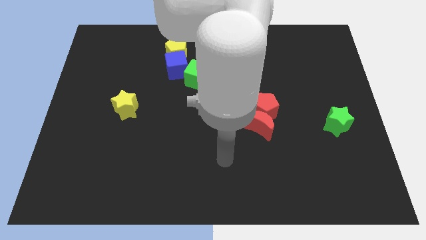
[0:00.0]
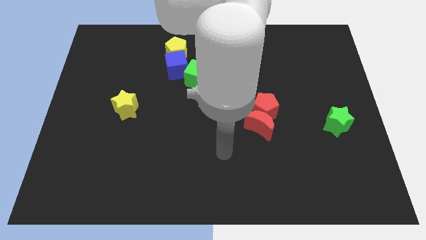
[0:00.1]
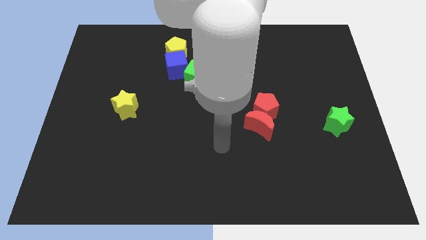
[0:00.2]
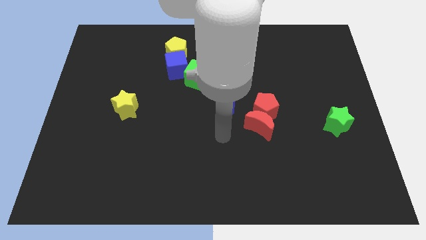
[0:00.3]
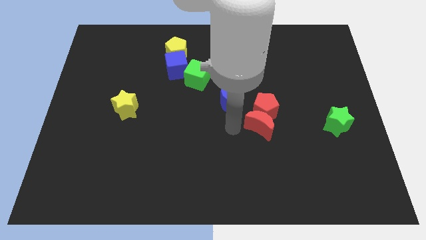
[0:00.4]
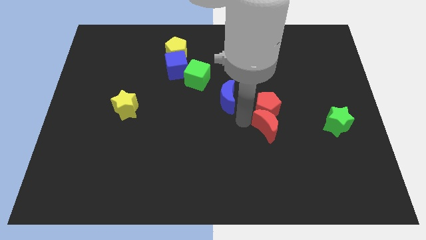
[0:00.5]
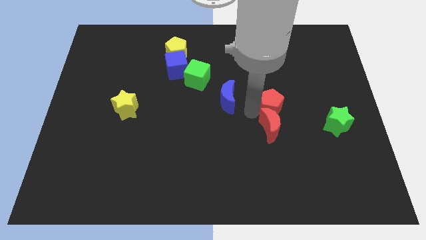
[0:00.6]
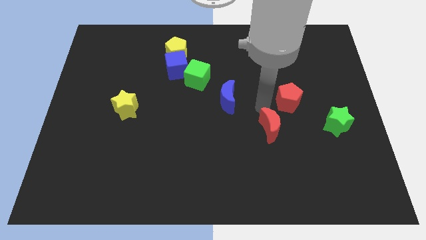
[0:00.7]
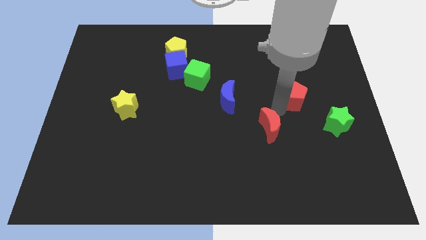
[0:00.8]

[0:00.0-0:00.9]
pull the red moon apart from the red pentagon

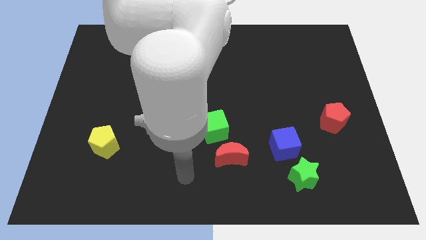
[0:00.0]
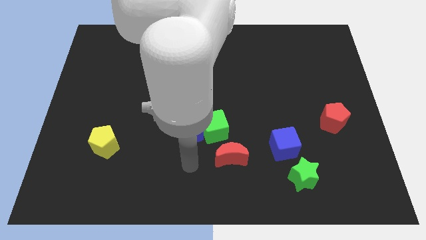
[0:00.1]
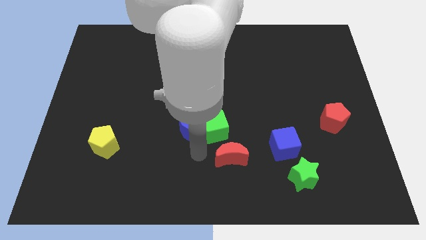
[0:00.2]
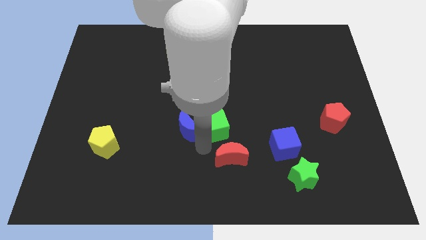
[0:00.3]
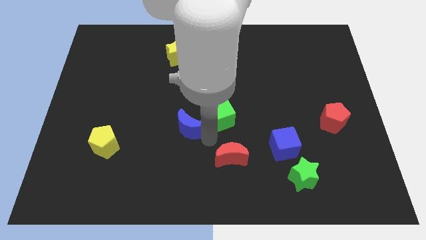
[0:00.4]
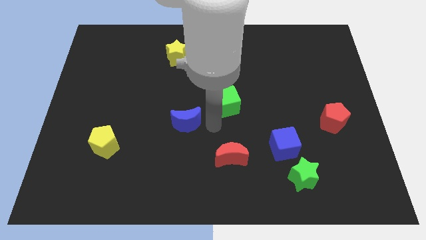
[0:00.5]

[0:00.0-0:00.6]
separate the blue moon from the green cube

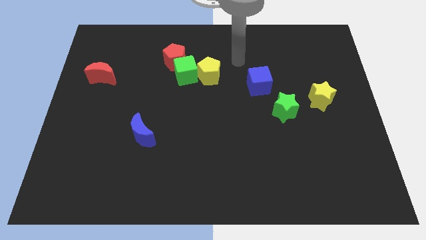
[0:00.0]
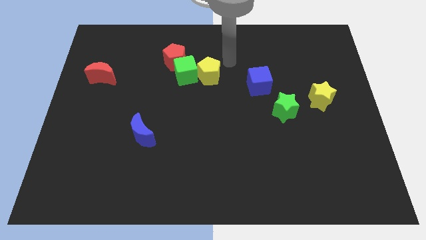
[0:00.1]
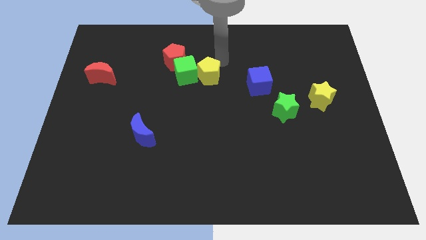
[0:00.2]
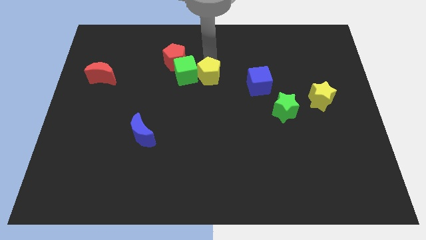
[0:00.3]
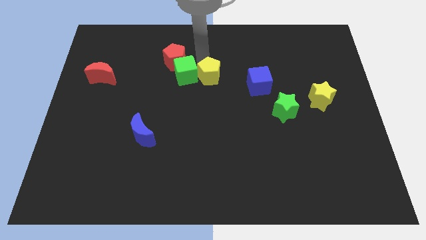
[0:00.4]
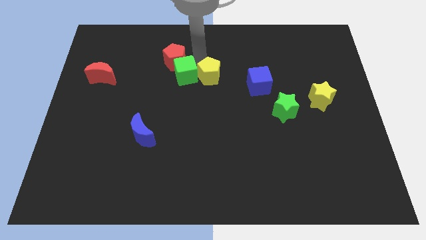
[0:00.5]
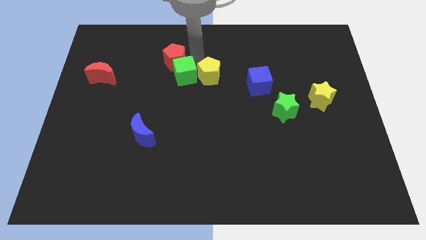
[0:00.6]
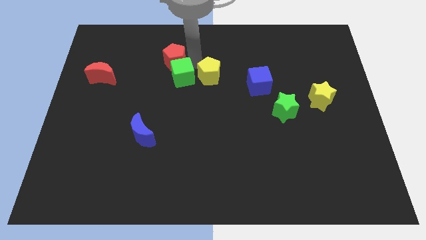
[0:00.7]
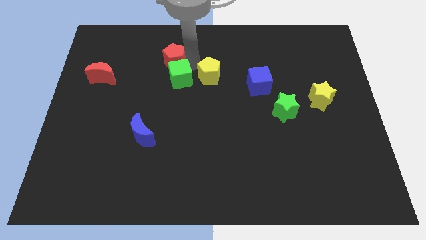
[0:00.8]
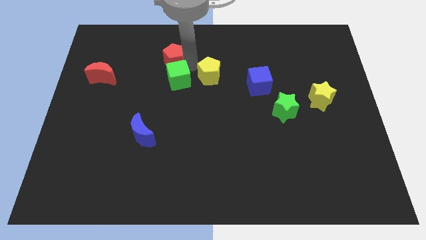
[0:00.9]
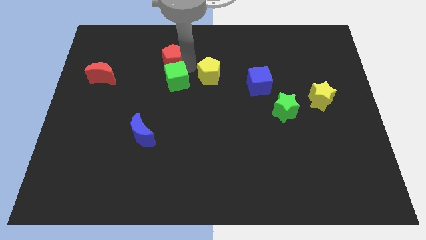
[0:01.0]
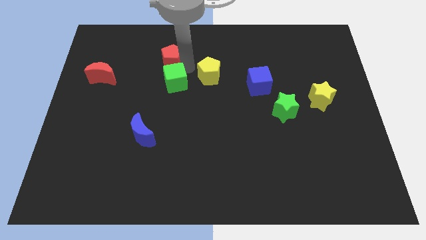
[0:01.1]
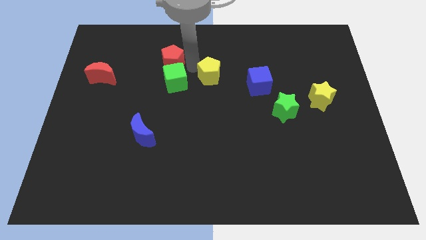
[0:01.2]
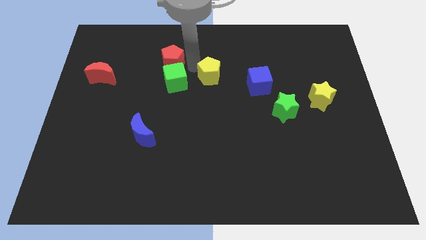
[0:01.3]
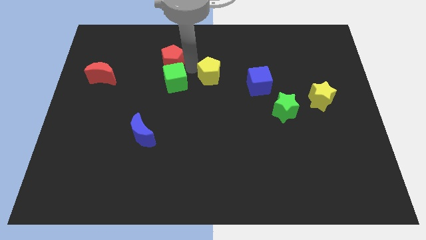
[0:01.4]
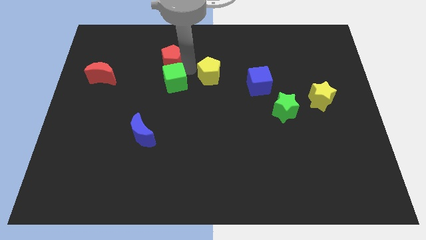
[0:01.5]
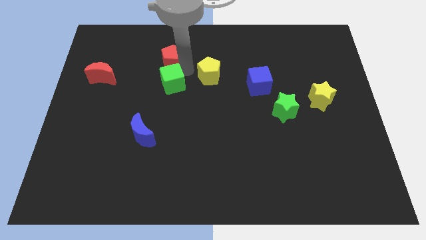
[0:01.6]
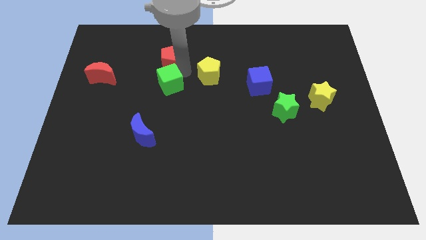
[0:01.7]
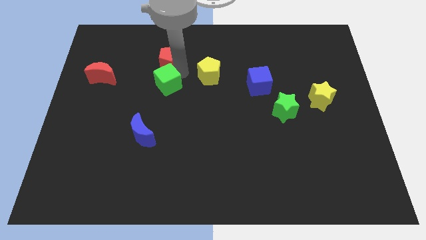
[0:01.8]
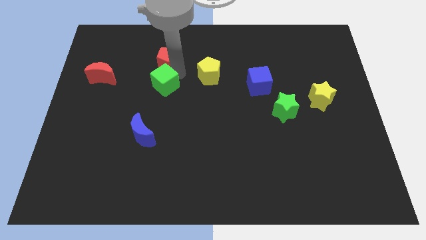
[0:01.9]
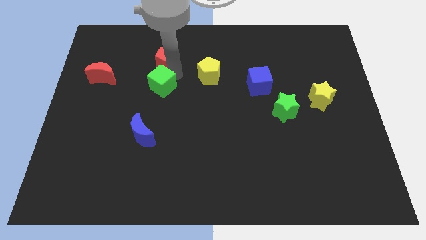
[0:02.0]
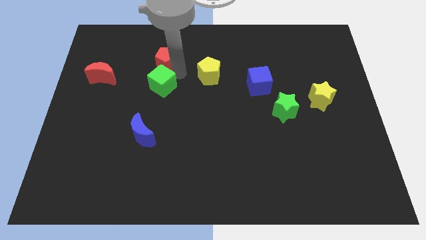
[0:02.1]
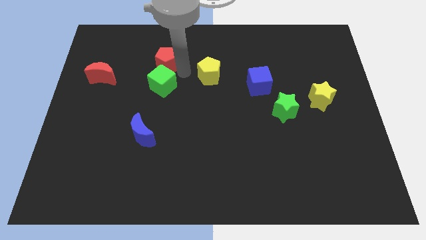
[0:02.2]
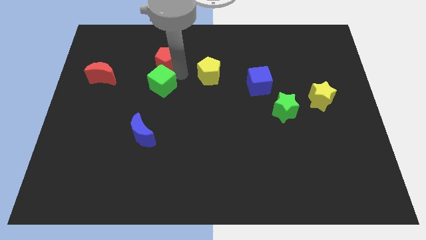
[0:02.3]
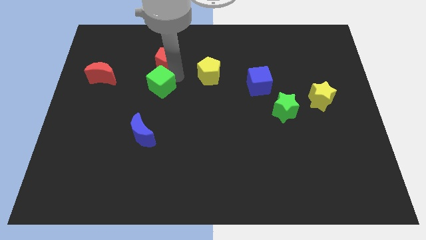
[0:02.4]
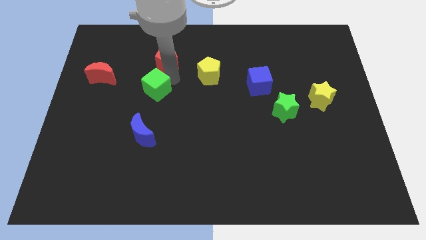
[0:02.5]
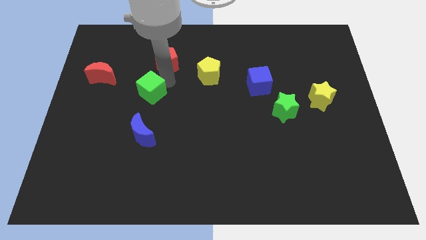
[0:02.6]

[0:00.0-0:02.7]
move the green cube away from the red pentagon and yellow pentagon

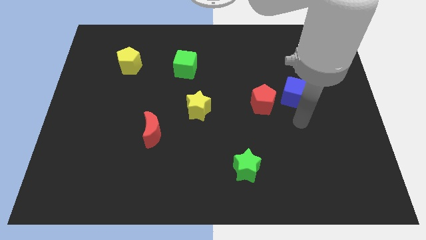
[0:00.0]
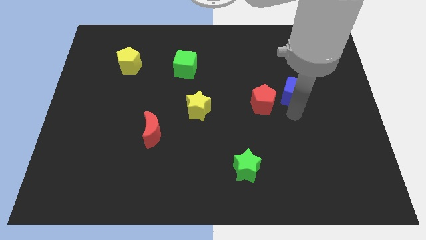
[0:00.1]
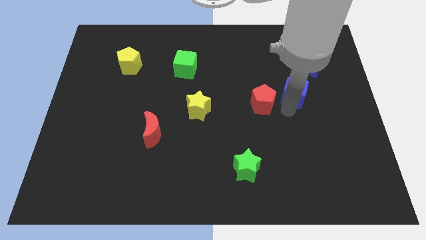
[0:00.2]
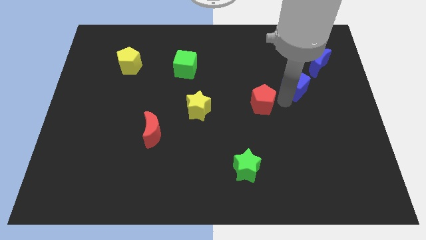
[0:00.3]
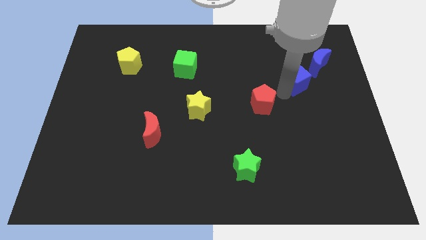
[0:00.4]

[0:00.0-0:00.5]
pull the red pentagon apart from the blue cube

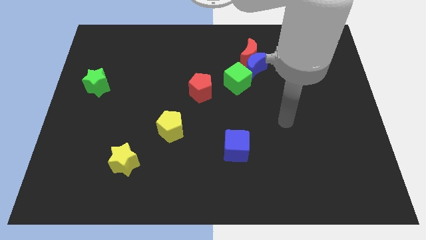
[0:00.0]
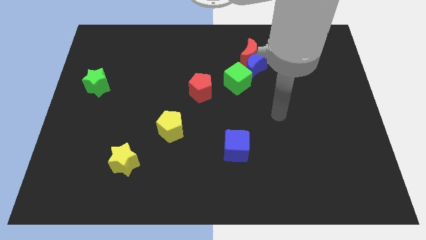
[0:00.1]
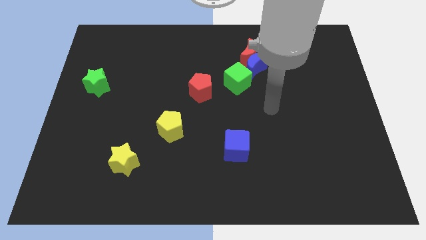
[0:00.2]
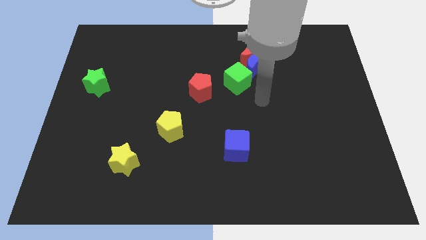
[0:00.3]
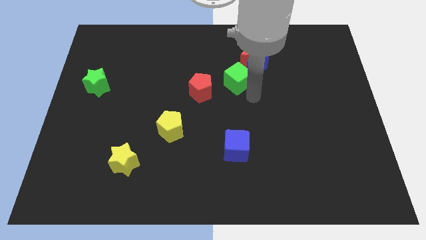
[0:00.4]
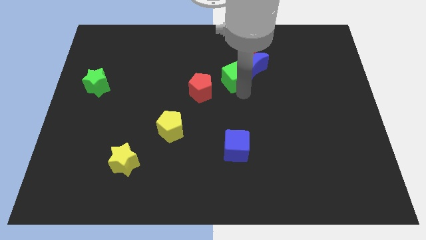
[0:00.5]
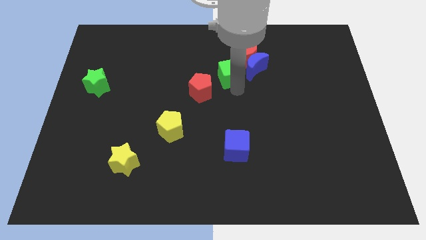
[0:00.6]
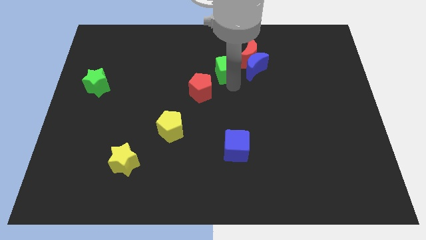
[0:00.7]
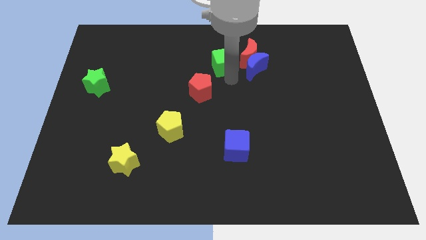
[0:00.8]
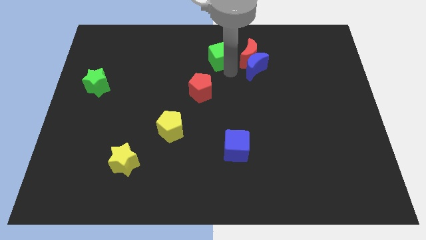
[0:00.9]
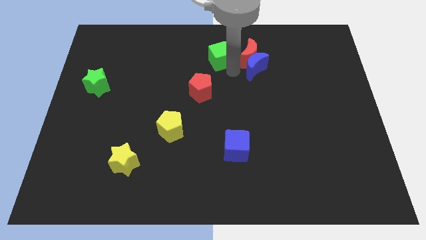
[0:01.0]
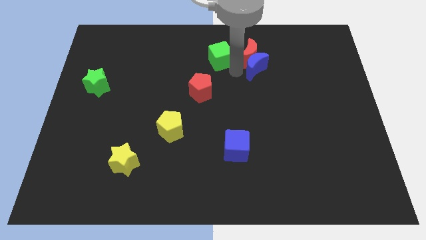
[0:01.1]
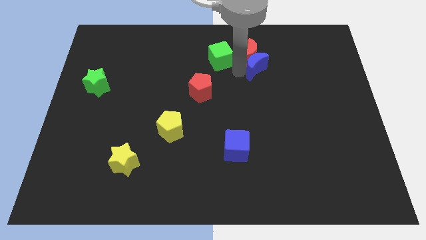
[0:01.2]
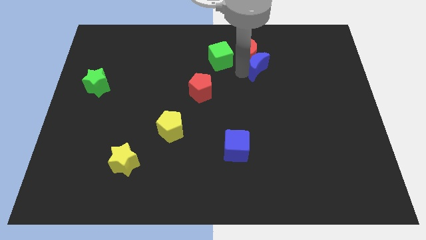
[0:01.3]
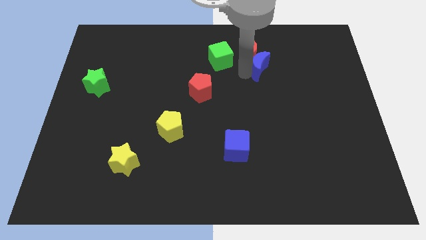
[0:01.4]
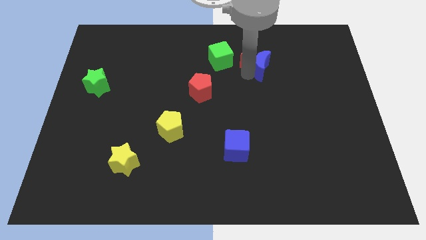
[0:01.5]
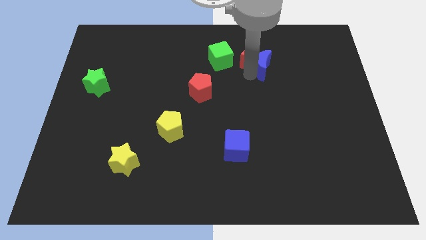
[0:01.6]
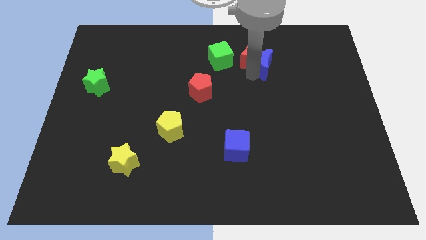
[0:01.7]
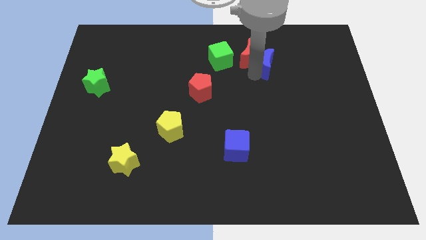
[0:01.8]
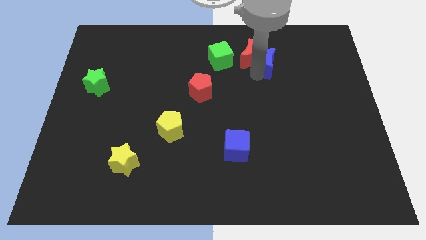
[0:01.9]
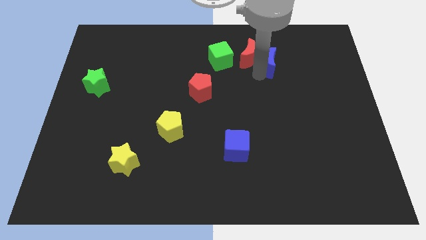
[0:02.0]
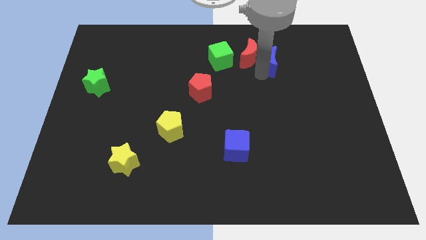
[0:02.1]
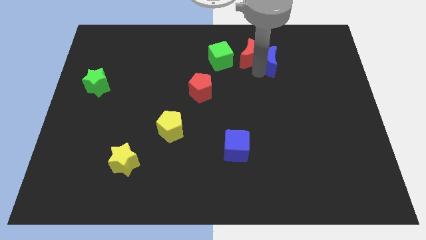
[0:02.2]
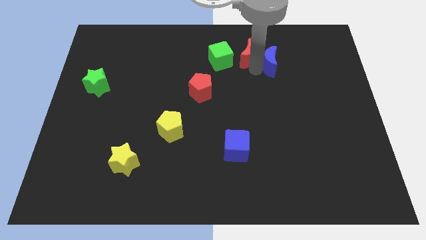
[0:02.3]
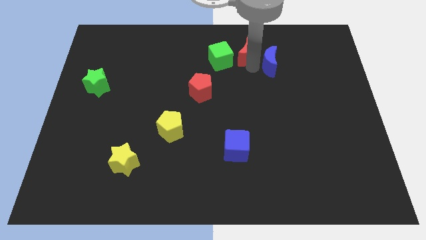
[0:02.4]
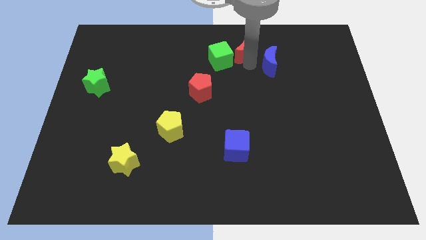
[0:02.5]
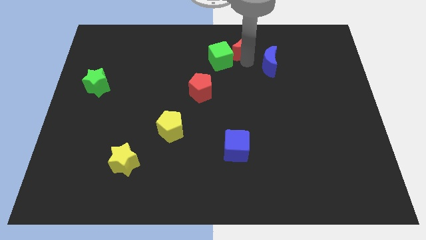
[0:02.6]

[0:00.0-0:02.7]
separate the blue moon from the red moon and green cube

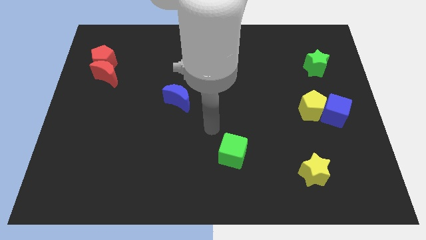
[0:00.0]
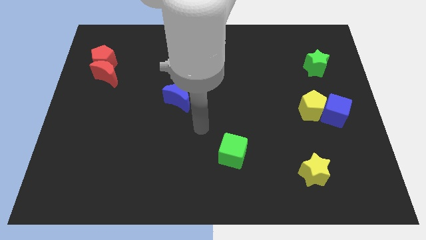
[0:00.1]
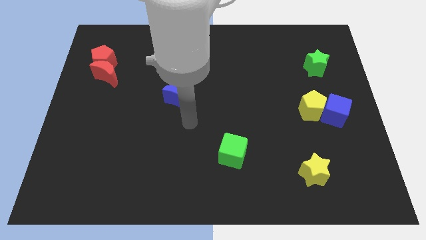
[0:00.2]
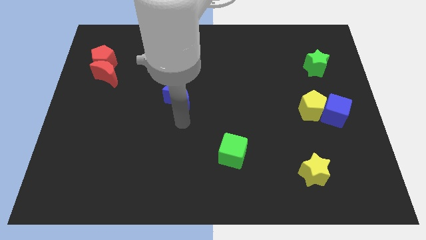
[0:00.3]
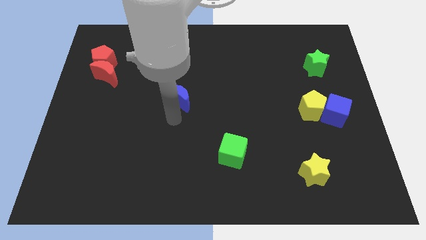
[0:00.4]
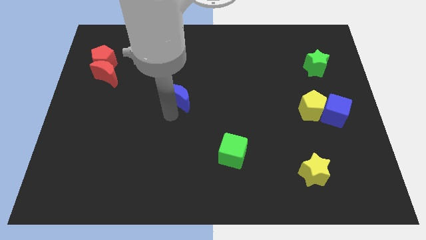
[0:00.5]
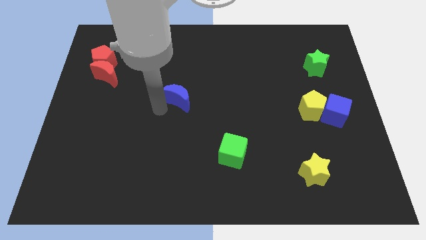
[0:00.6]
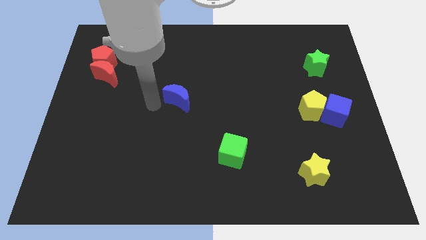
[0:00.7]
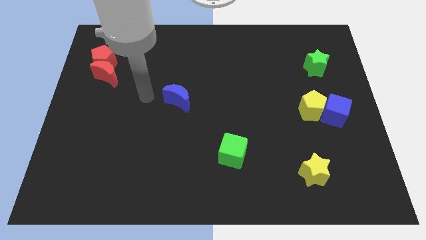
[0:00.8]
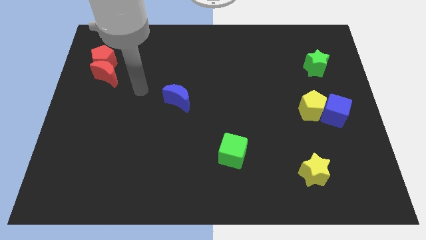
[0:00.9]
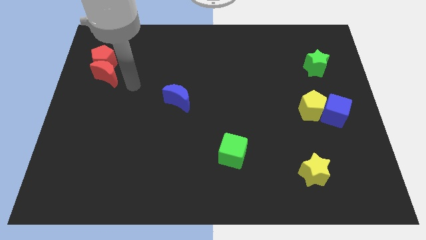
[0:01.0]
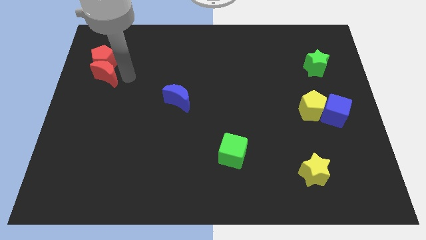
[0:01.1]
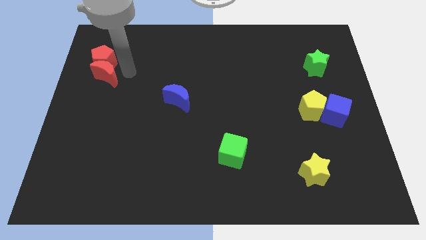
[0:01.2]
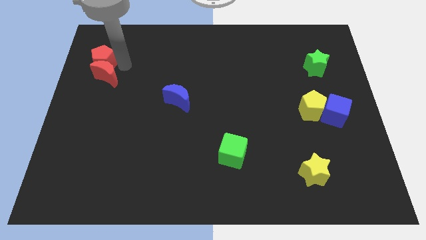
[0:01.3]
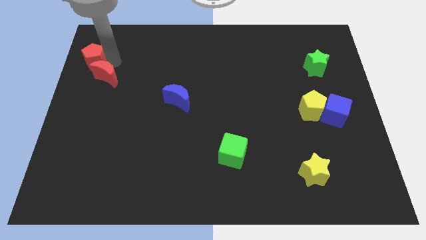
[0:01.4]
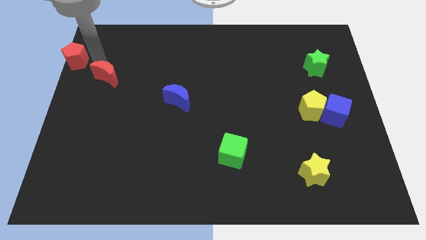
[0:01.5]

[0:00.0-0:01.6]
move the red moon away from the red pentagon

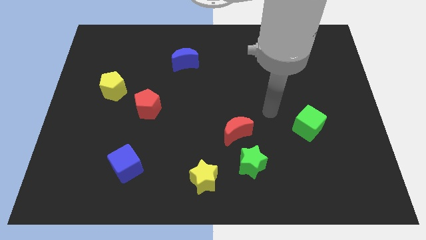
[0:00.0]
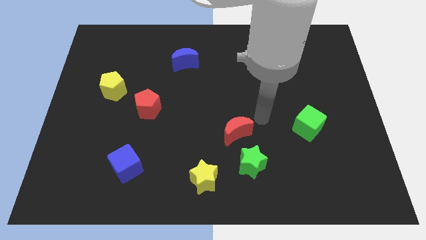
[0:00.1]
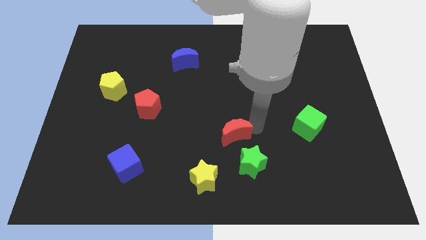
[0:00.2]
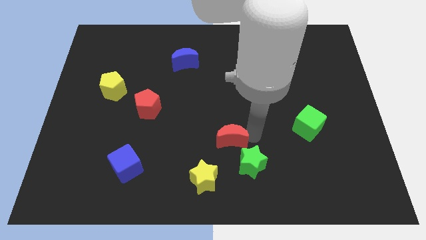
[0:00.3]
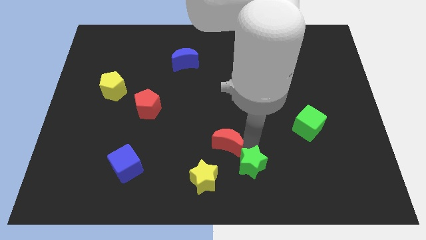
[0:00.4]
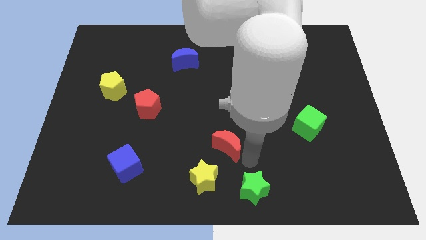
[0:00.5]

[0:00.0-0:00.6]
move the red moon away from the green star
